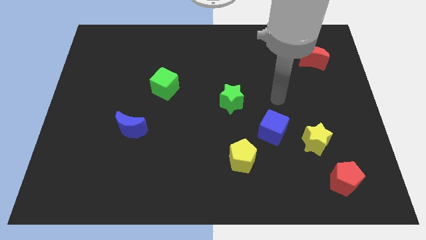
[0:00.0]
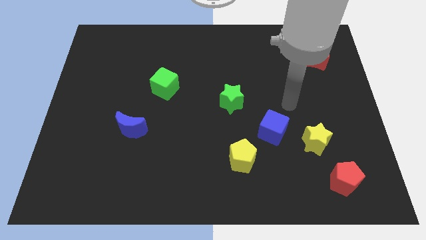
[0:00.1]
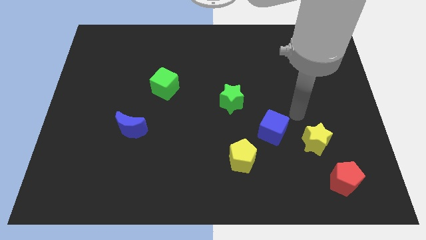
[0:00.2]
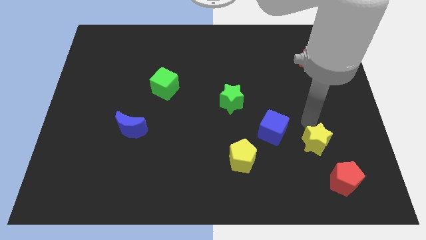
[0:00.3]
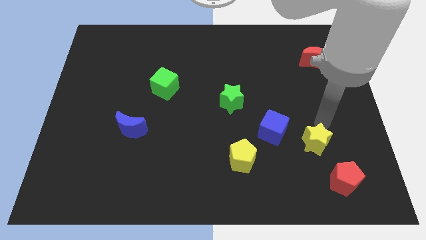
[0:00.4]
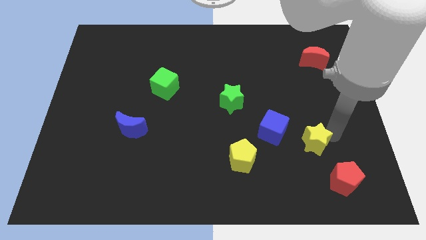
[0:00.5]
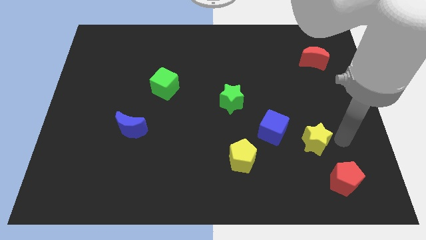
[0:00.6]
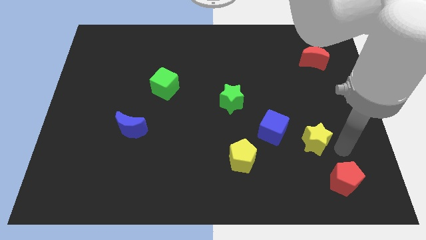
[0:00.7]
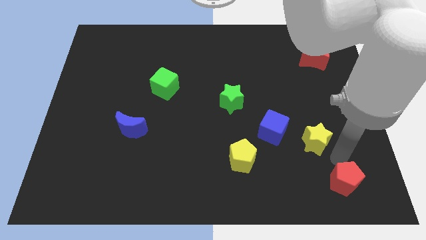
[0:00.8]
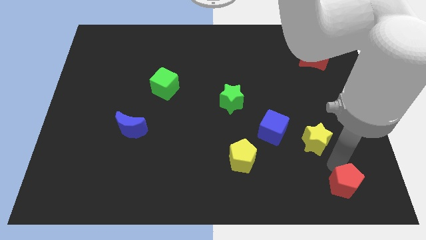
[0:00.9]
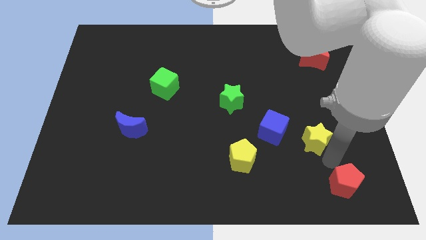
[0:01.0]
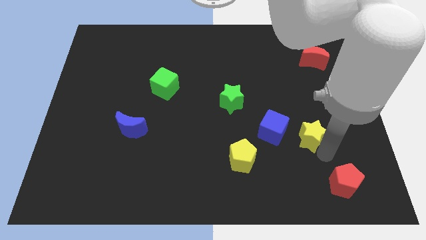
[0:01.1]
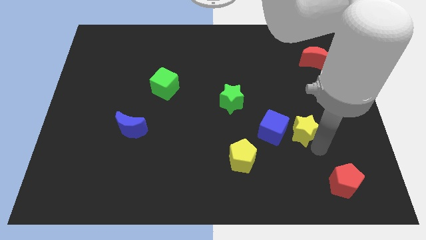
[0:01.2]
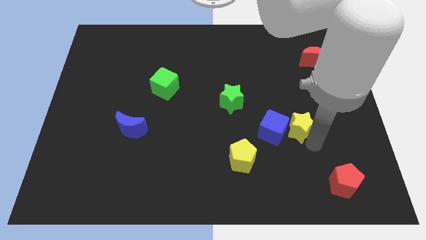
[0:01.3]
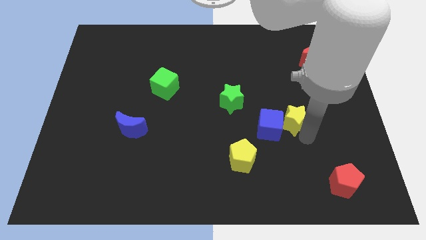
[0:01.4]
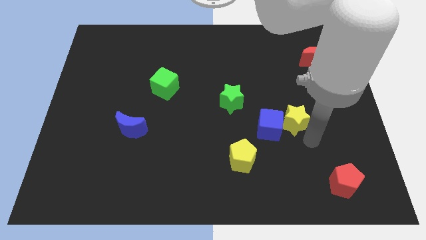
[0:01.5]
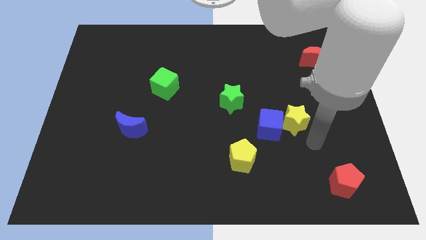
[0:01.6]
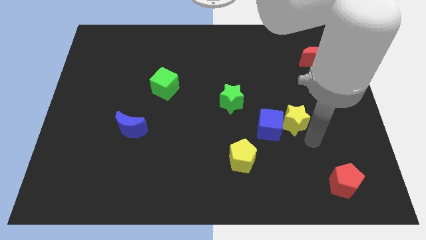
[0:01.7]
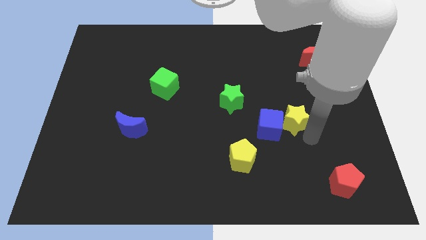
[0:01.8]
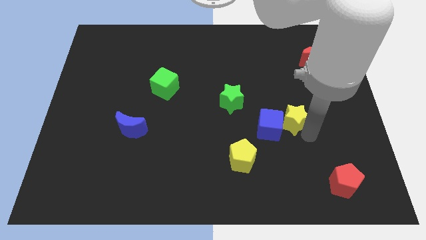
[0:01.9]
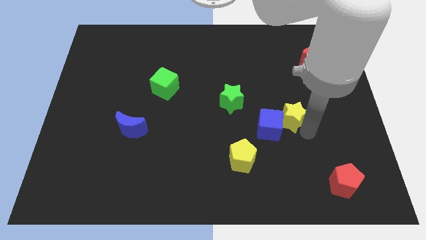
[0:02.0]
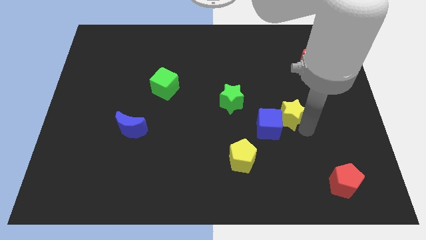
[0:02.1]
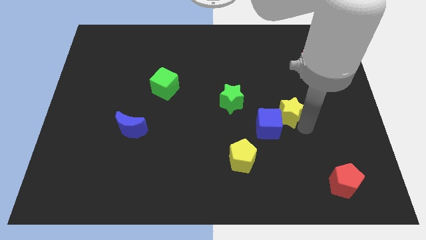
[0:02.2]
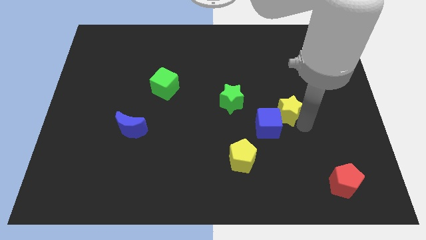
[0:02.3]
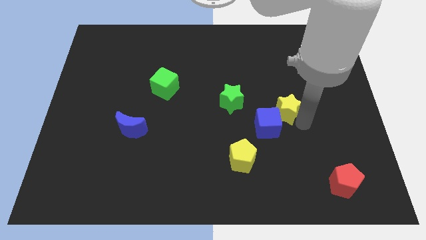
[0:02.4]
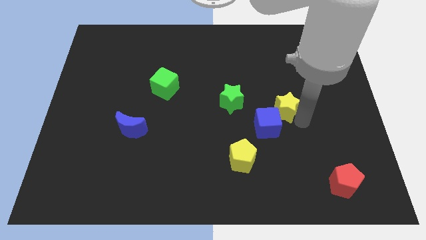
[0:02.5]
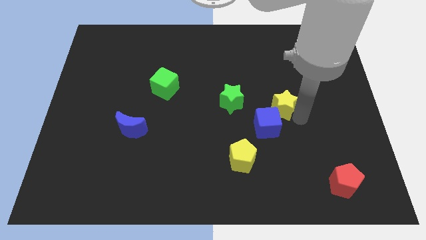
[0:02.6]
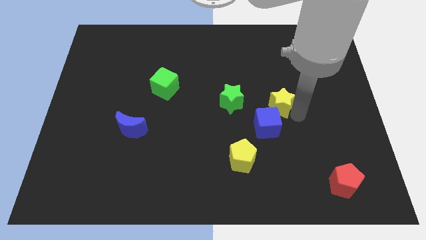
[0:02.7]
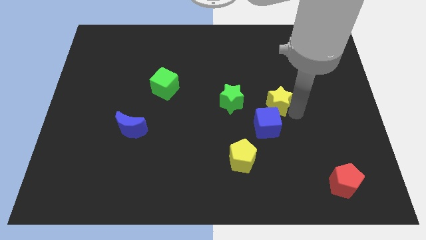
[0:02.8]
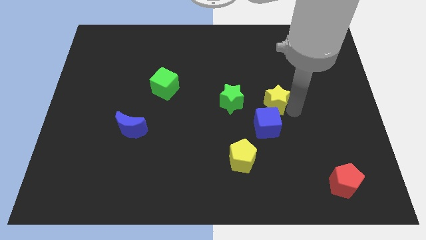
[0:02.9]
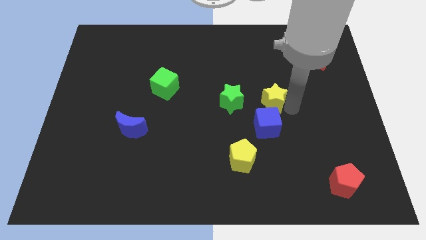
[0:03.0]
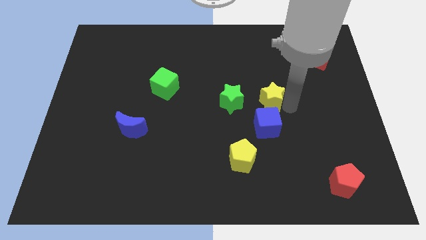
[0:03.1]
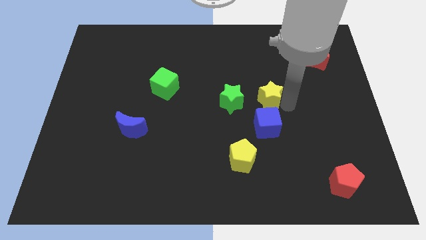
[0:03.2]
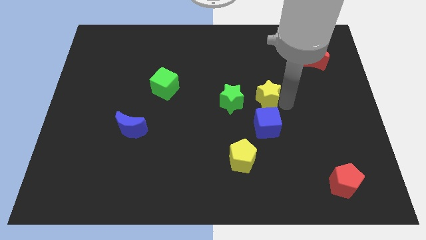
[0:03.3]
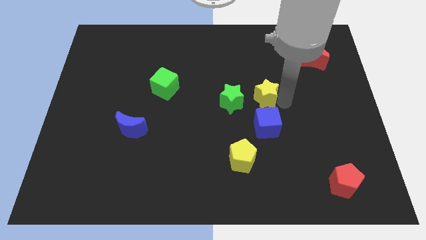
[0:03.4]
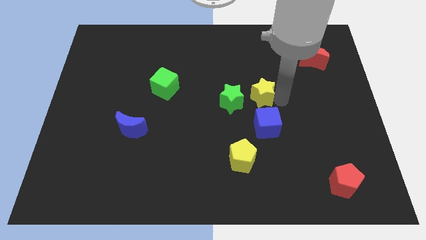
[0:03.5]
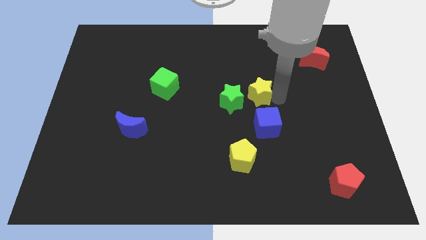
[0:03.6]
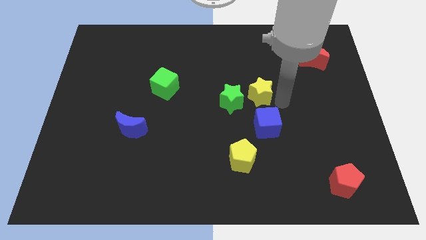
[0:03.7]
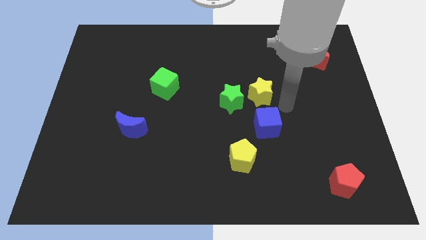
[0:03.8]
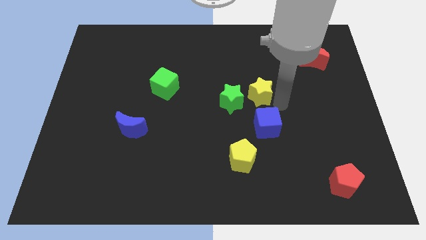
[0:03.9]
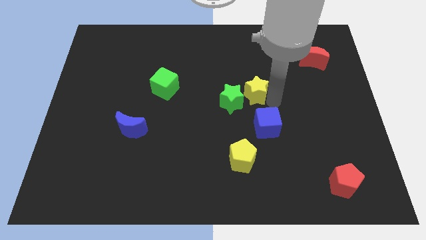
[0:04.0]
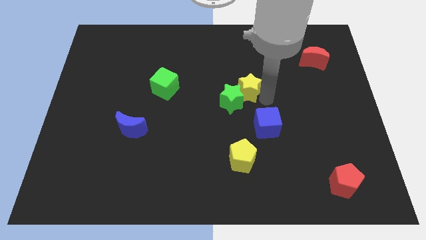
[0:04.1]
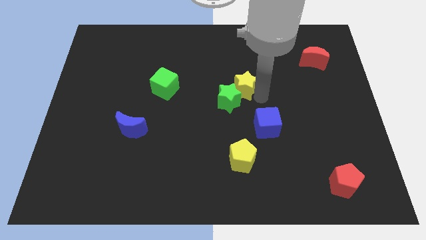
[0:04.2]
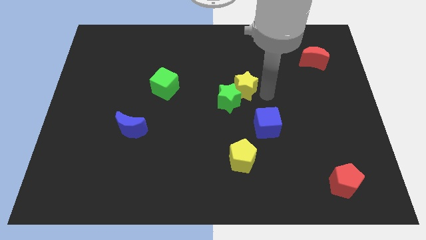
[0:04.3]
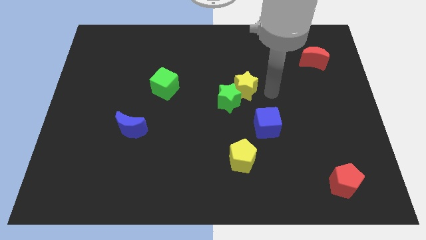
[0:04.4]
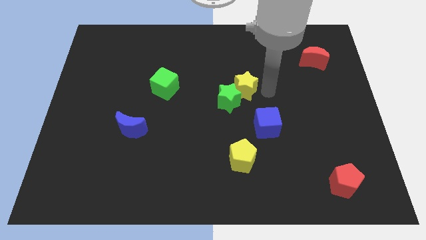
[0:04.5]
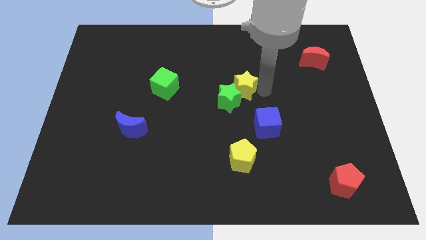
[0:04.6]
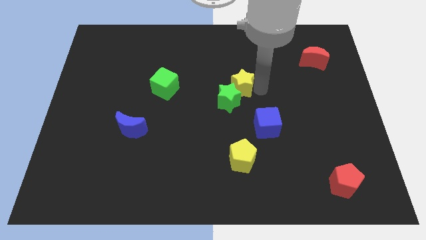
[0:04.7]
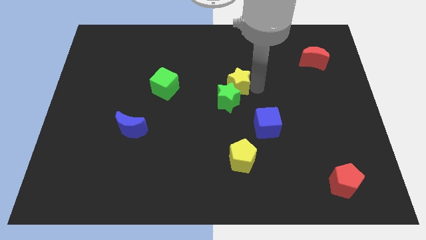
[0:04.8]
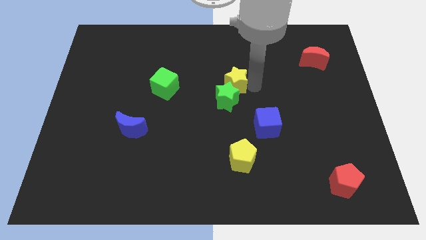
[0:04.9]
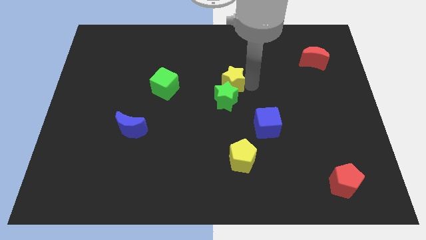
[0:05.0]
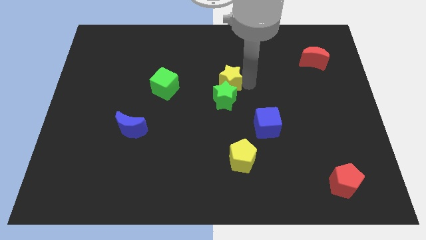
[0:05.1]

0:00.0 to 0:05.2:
put the yellow star to the right of the green cube

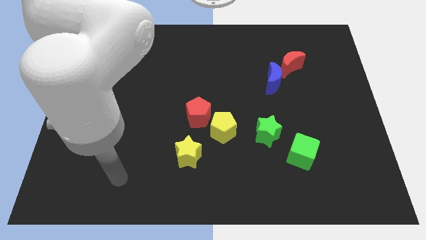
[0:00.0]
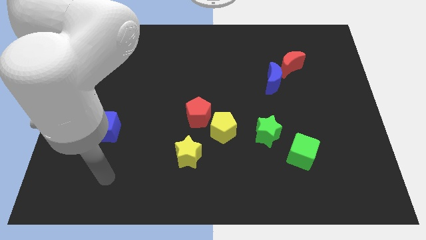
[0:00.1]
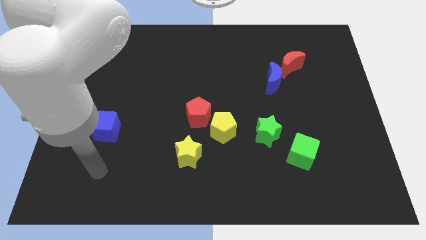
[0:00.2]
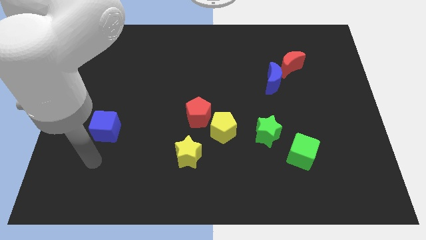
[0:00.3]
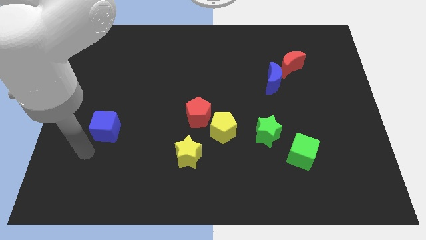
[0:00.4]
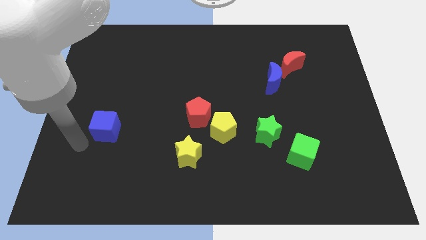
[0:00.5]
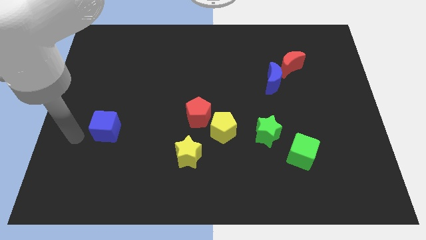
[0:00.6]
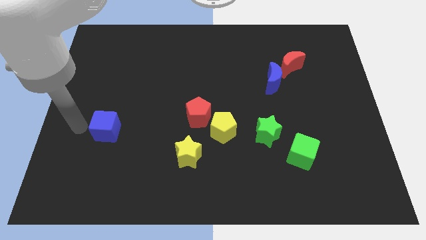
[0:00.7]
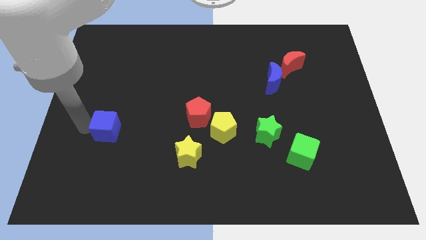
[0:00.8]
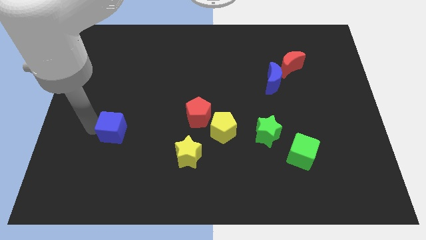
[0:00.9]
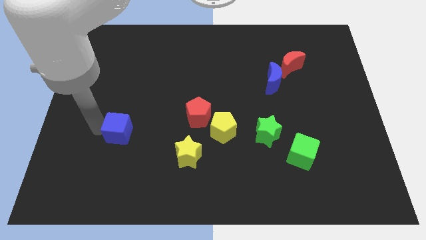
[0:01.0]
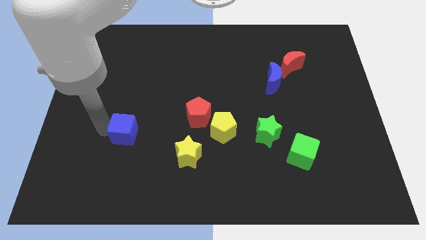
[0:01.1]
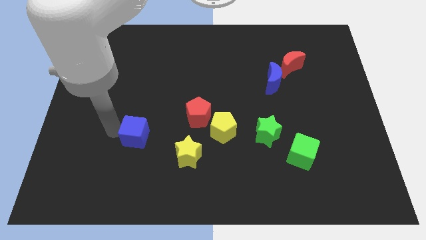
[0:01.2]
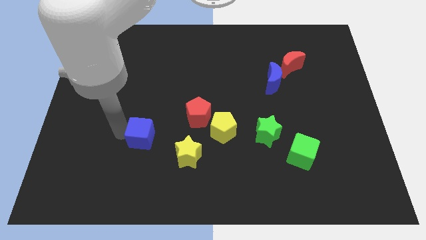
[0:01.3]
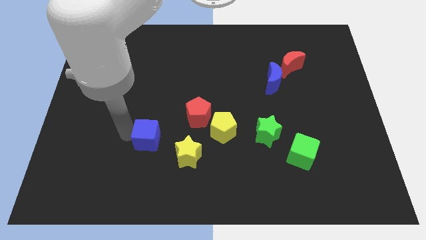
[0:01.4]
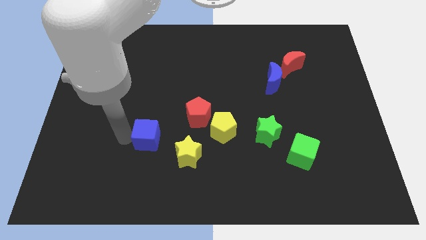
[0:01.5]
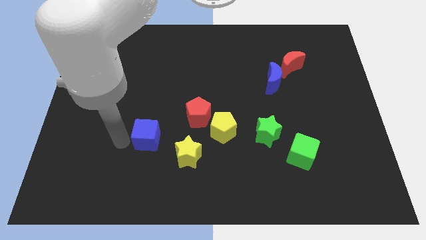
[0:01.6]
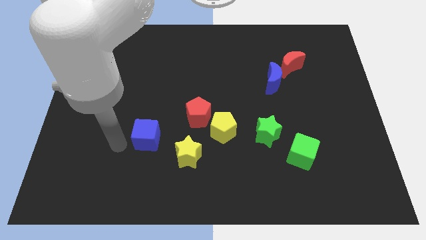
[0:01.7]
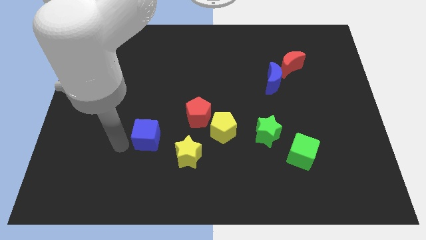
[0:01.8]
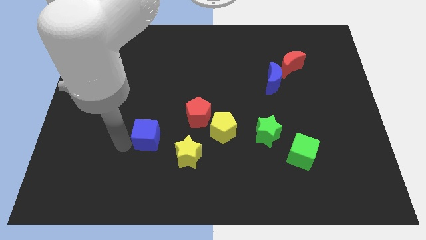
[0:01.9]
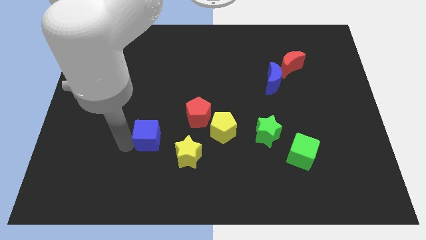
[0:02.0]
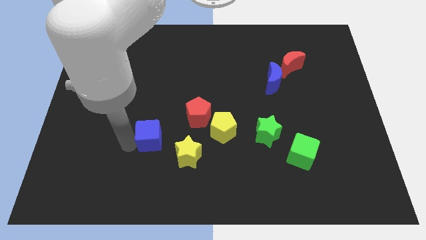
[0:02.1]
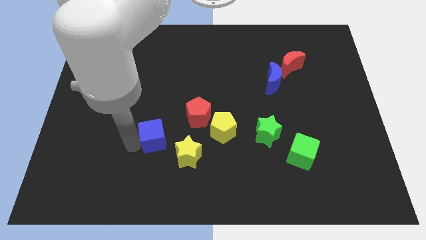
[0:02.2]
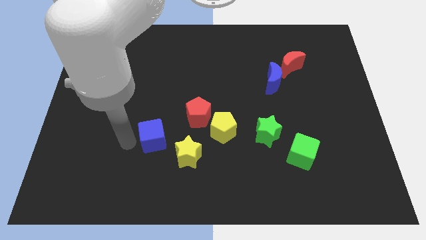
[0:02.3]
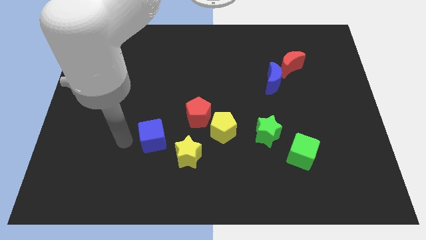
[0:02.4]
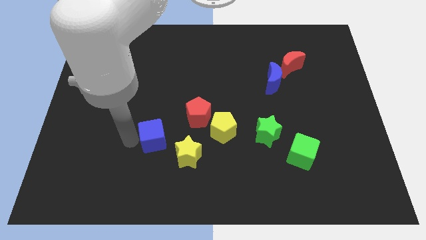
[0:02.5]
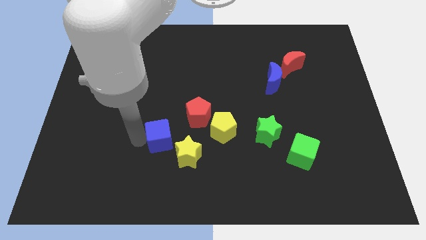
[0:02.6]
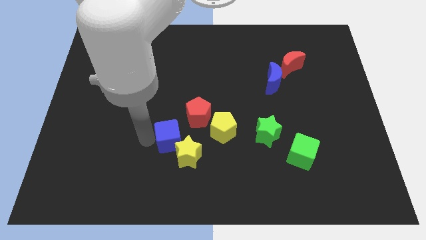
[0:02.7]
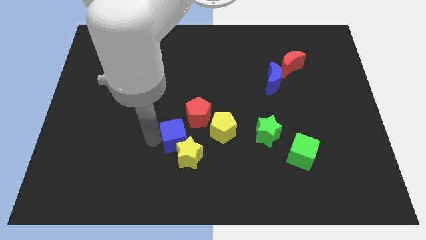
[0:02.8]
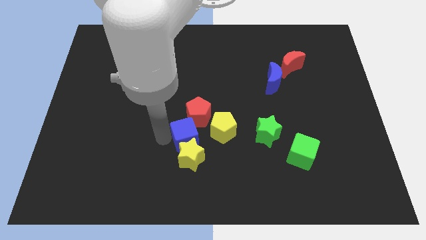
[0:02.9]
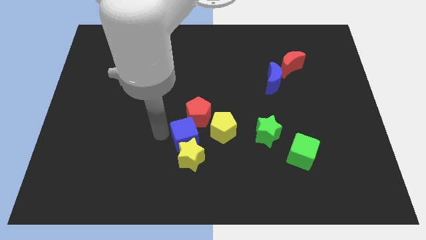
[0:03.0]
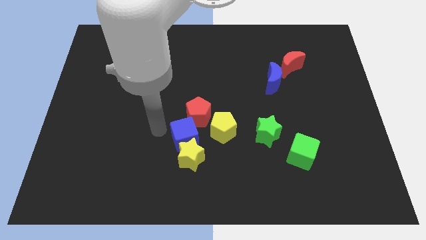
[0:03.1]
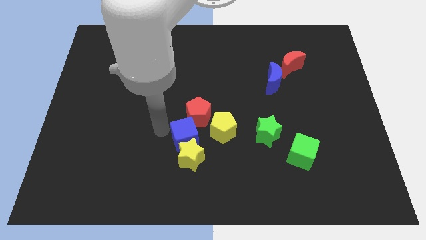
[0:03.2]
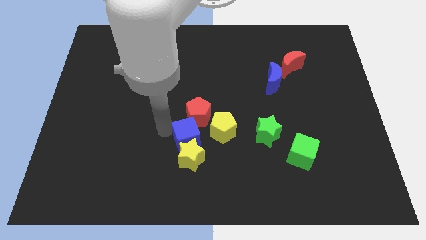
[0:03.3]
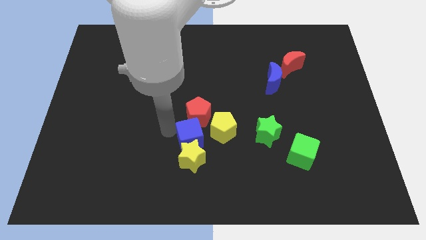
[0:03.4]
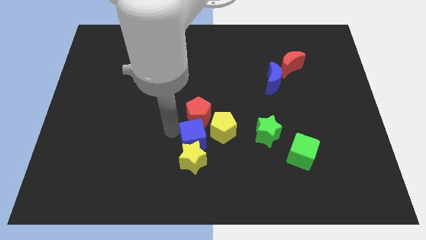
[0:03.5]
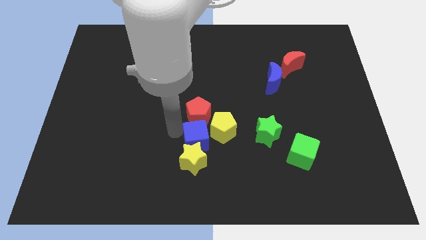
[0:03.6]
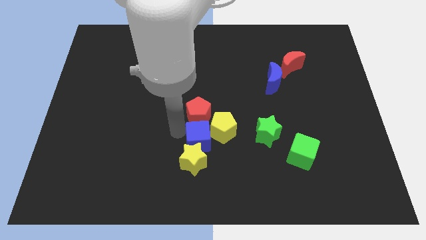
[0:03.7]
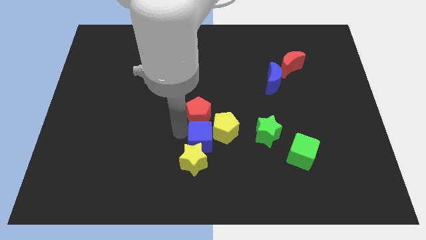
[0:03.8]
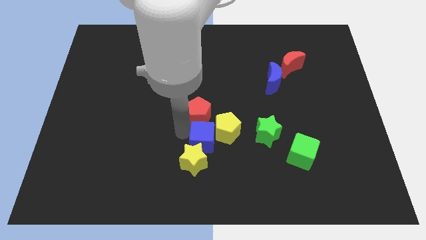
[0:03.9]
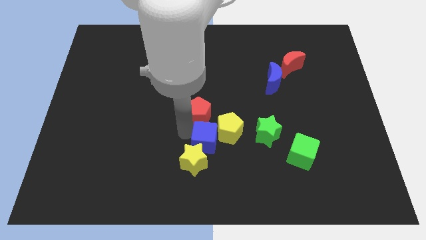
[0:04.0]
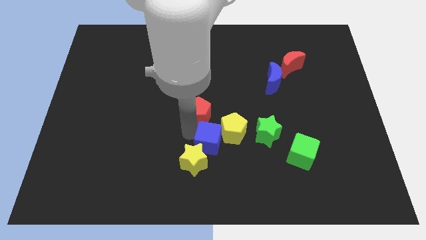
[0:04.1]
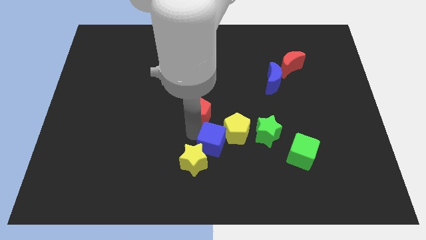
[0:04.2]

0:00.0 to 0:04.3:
put the blue cube to the right side of the yellow star
